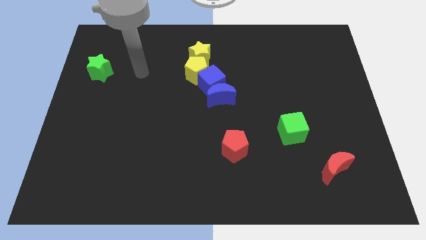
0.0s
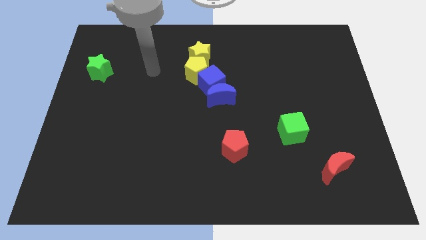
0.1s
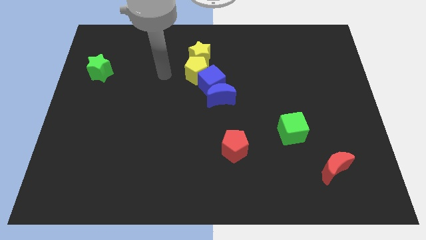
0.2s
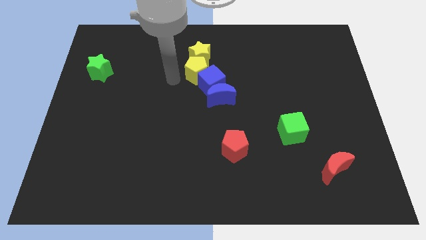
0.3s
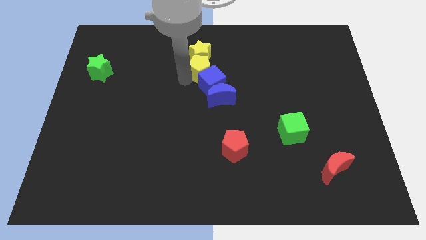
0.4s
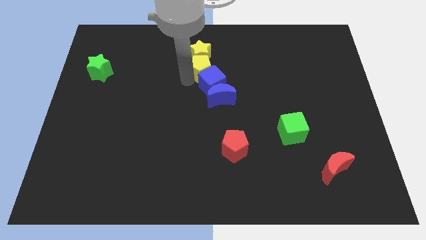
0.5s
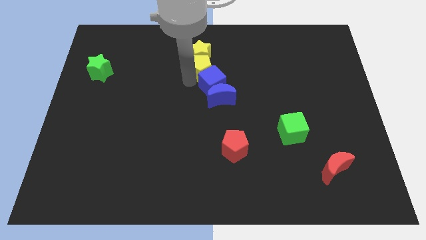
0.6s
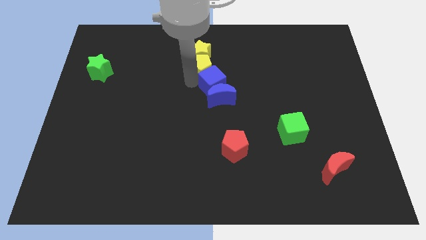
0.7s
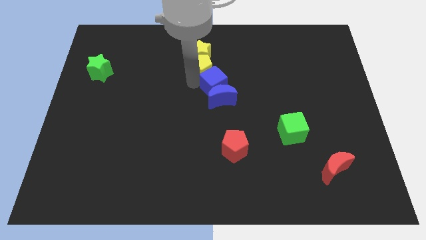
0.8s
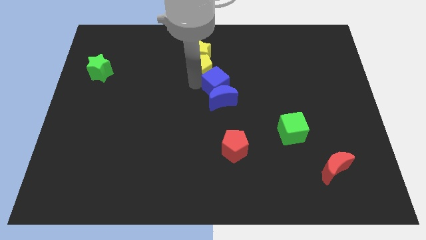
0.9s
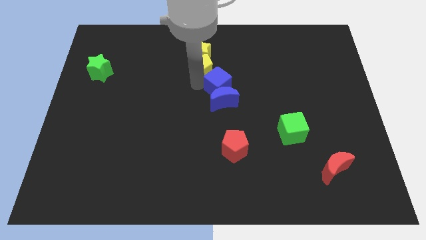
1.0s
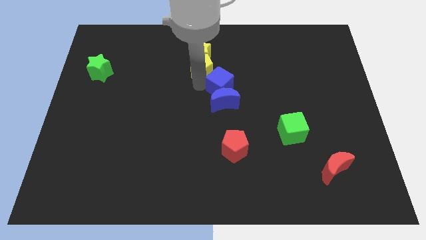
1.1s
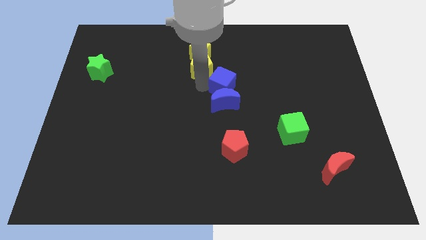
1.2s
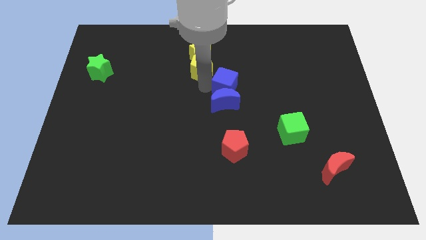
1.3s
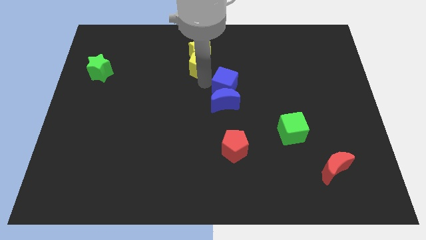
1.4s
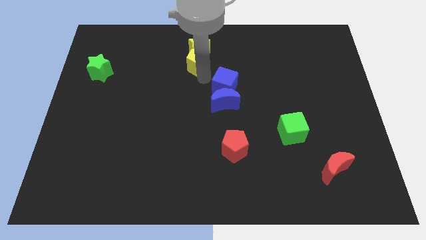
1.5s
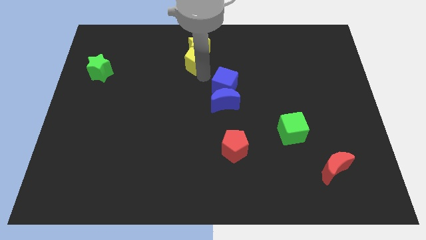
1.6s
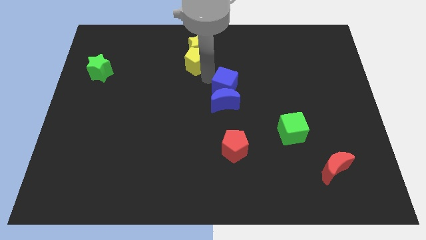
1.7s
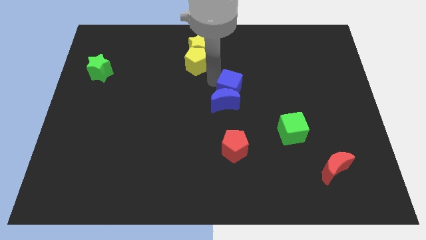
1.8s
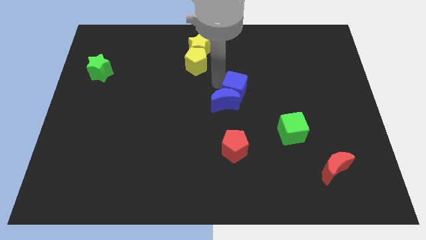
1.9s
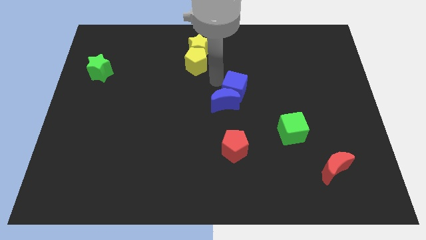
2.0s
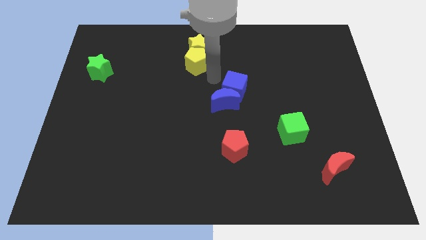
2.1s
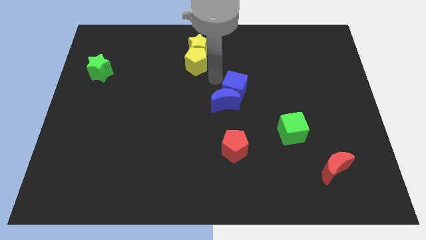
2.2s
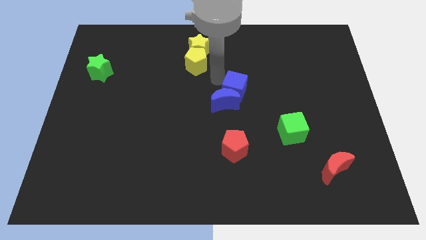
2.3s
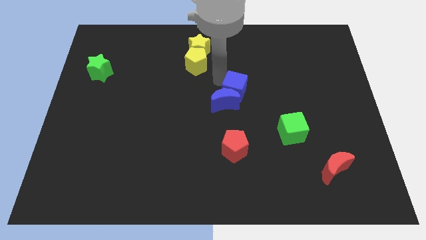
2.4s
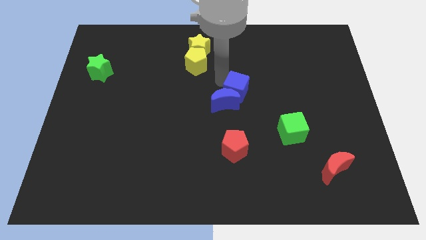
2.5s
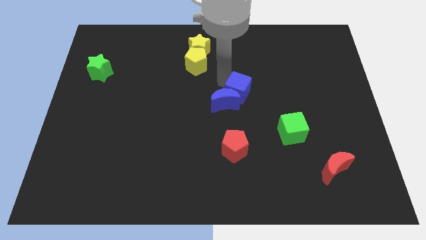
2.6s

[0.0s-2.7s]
pull the blue cube apart from the group of blocks

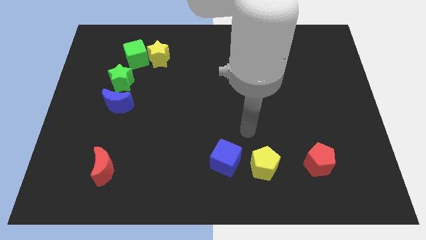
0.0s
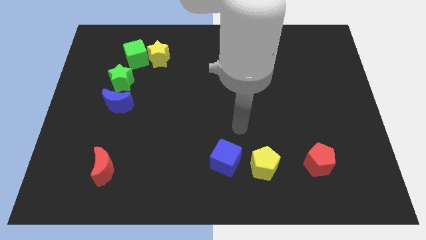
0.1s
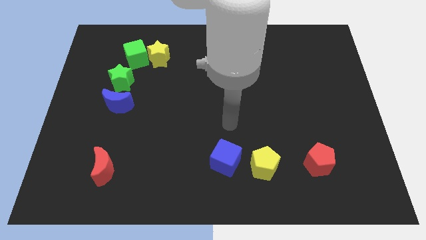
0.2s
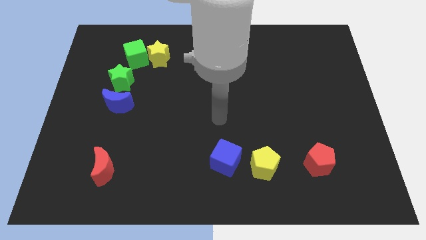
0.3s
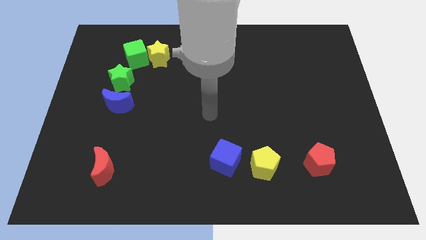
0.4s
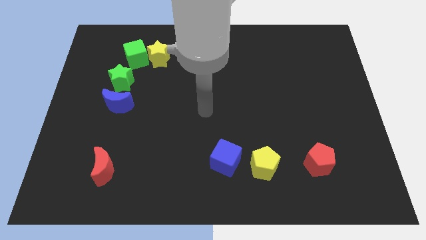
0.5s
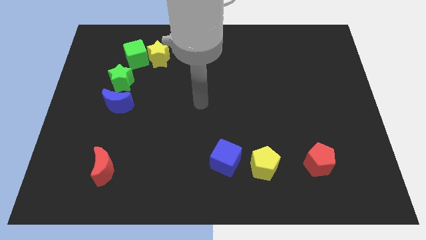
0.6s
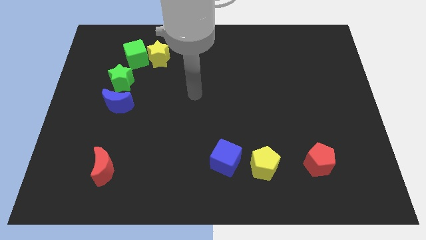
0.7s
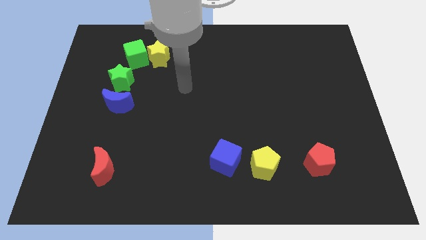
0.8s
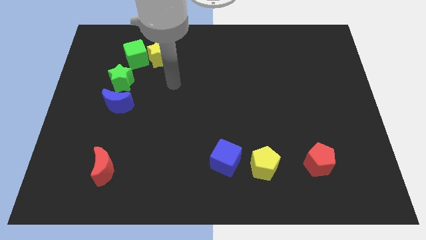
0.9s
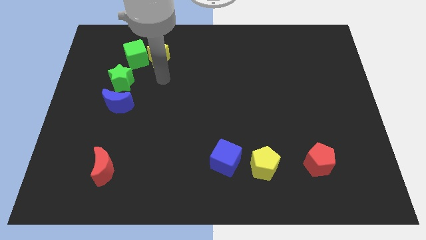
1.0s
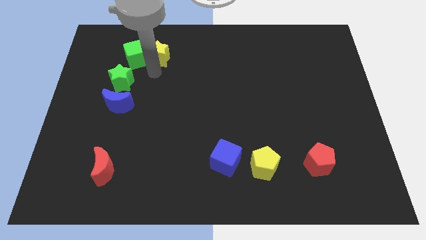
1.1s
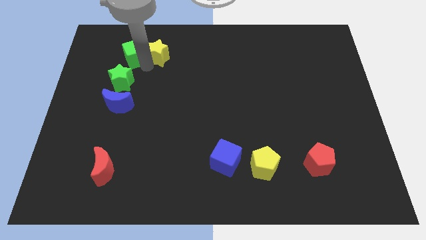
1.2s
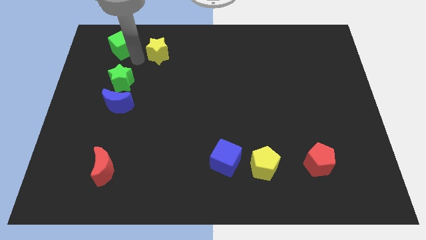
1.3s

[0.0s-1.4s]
move the yellow star away from the green cube

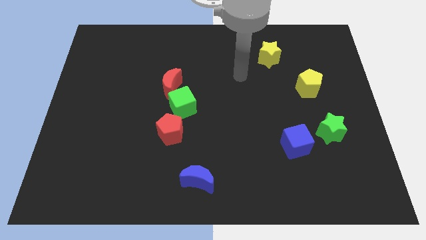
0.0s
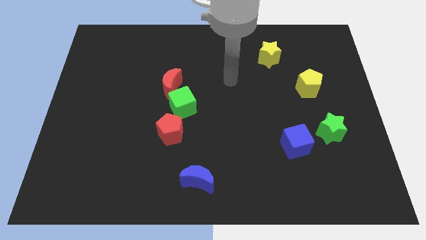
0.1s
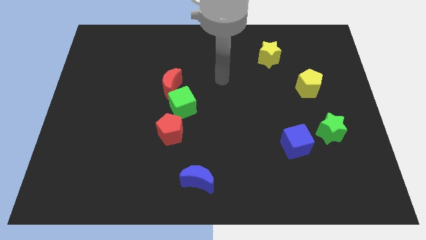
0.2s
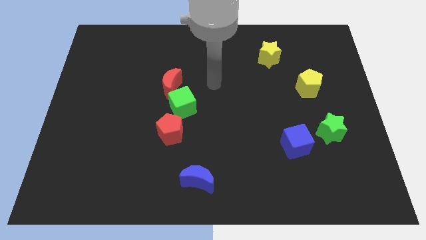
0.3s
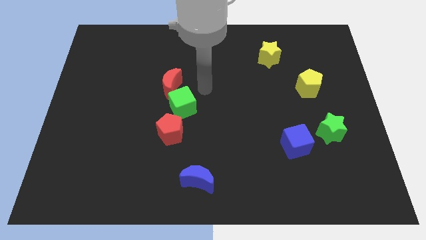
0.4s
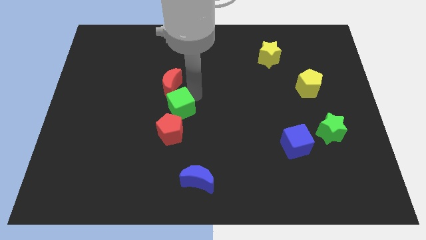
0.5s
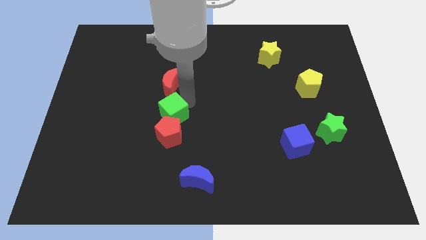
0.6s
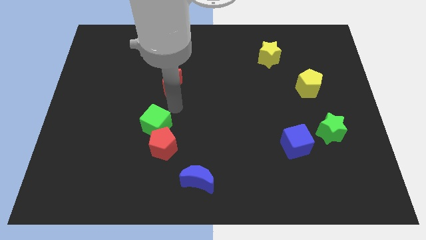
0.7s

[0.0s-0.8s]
pull the red moon apart from the green cube

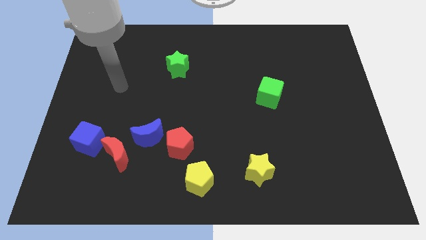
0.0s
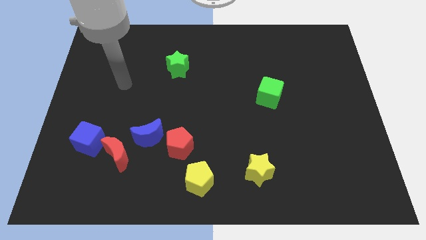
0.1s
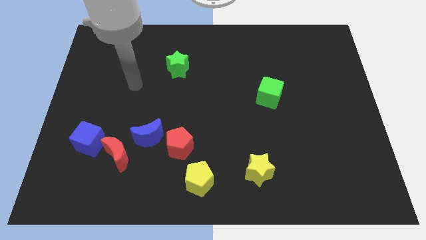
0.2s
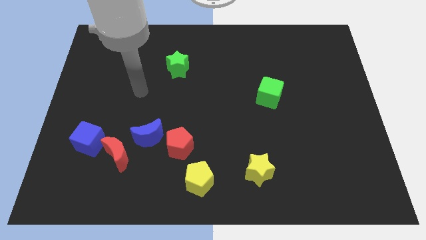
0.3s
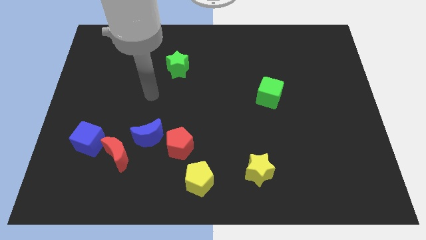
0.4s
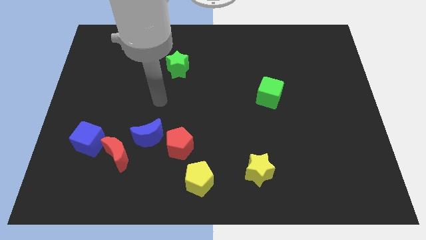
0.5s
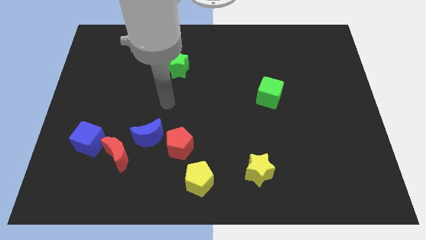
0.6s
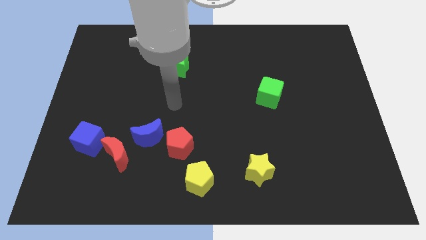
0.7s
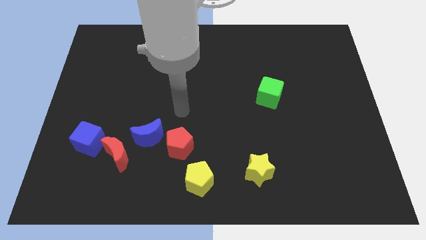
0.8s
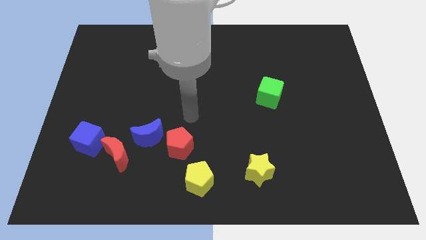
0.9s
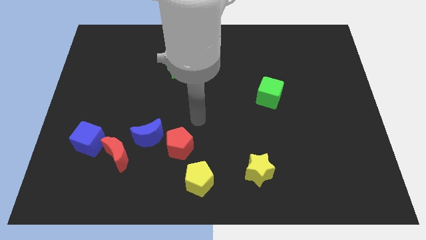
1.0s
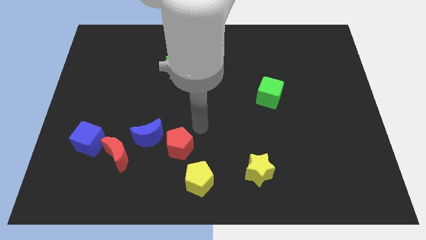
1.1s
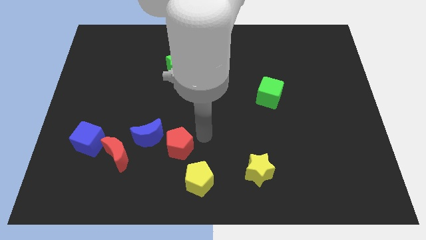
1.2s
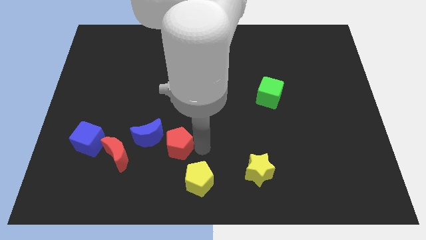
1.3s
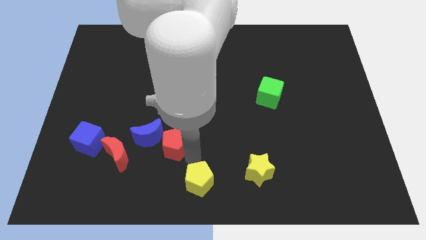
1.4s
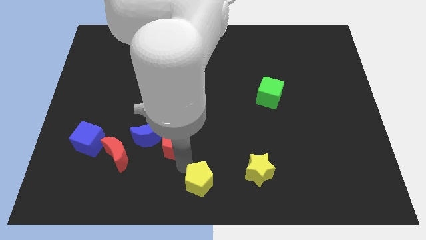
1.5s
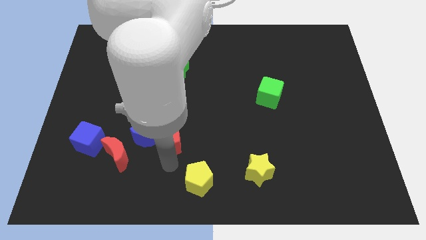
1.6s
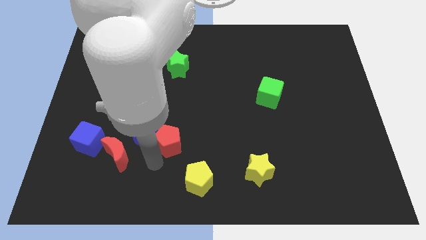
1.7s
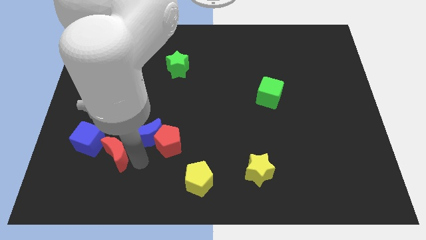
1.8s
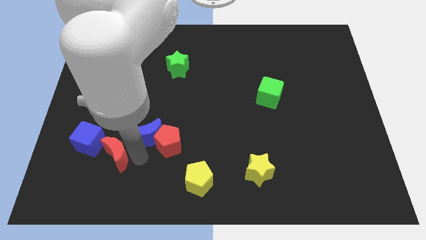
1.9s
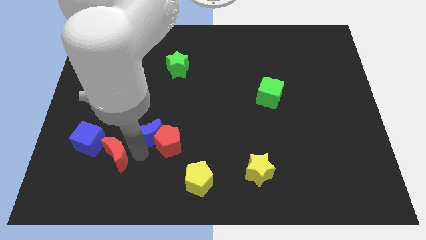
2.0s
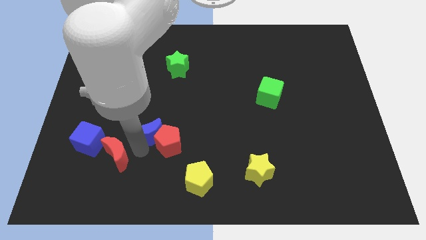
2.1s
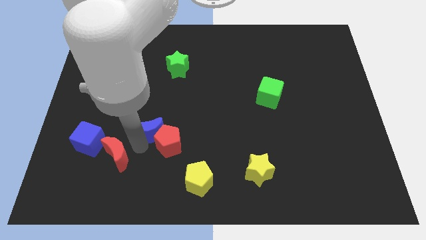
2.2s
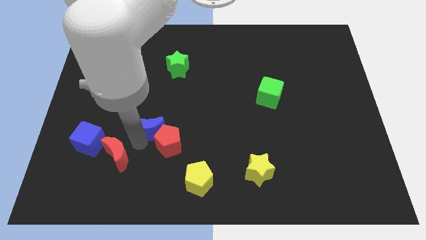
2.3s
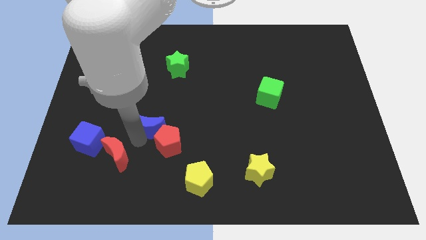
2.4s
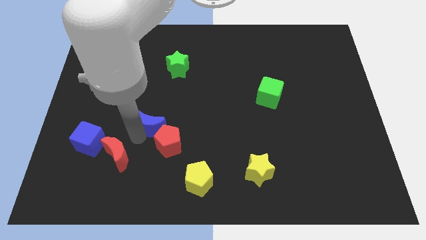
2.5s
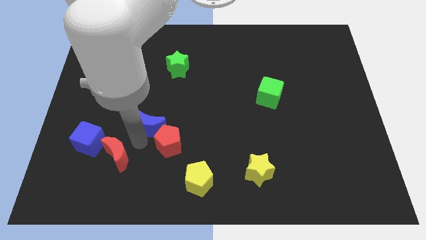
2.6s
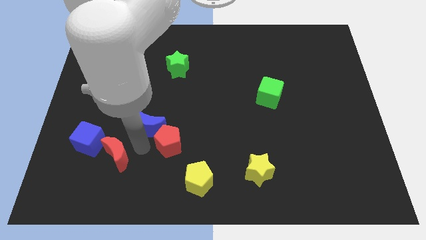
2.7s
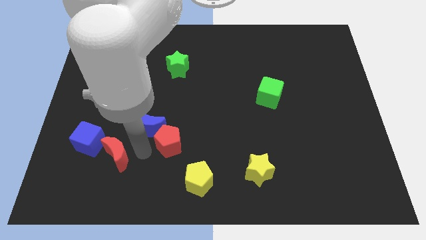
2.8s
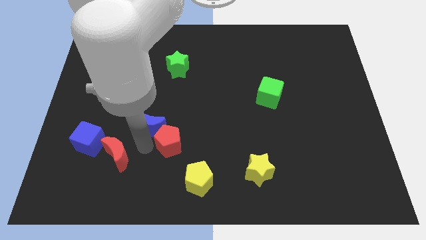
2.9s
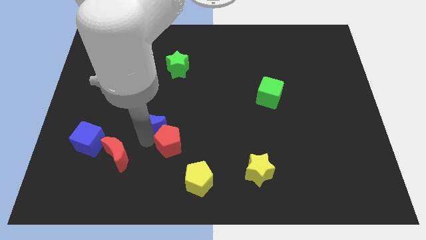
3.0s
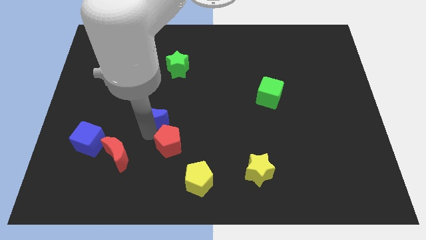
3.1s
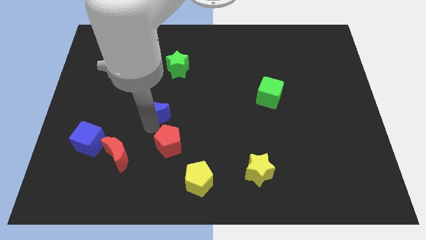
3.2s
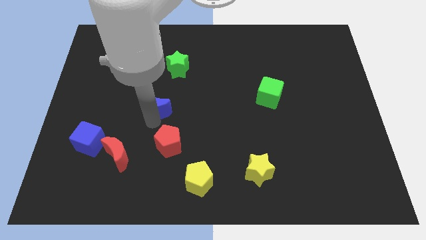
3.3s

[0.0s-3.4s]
separate the blue moon from the red pentagon and red moon

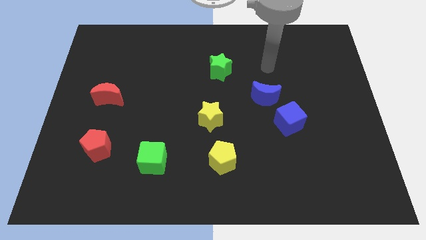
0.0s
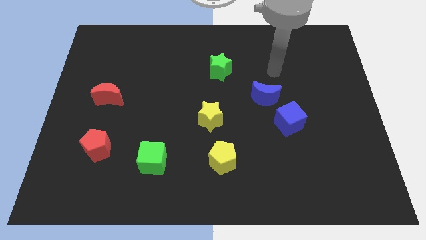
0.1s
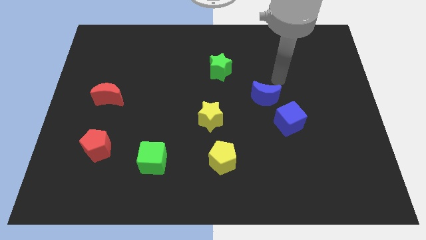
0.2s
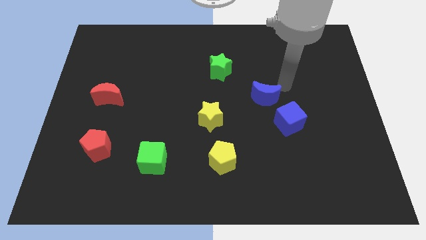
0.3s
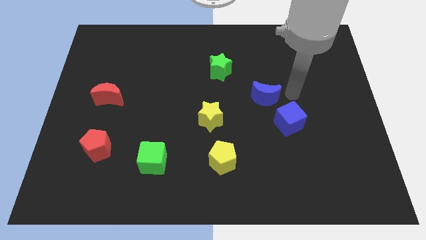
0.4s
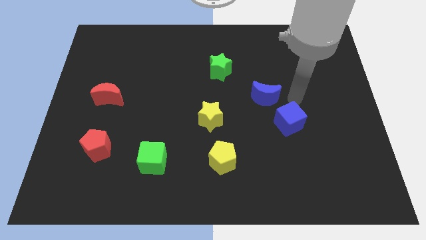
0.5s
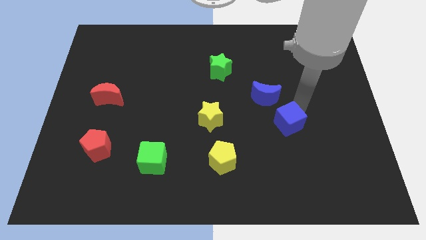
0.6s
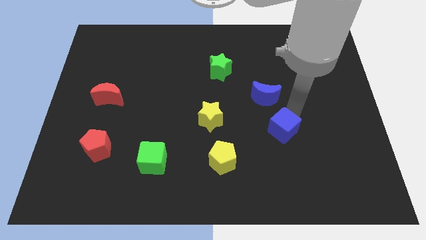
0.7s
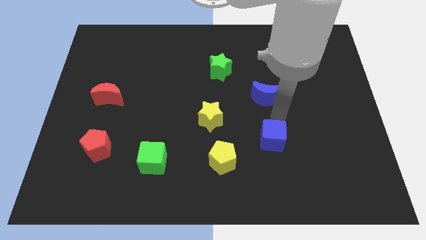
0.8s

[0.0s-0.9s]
pull the blue moon apart from the blue cube
